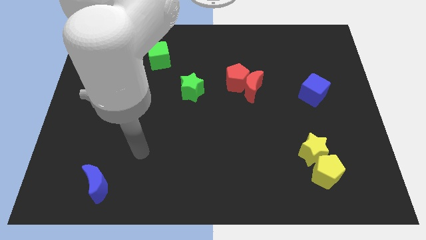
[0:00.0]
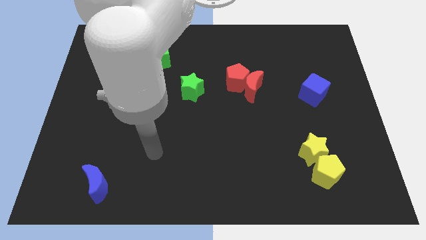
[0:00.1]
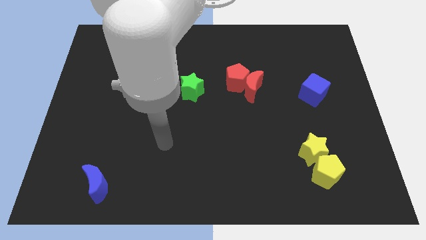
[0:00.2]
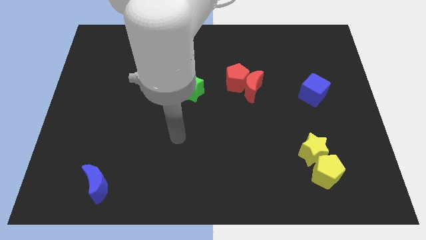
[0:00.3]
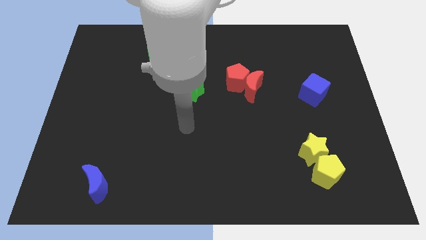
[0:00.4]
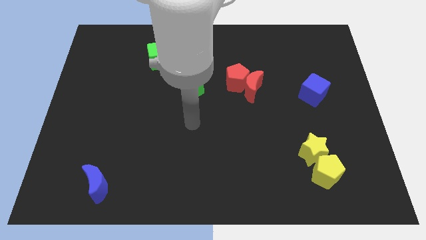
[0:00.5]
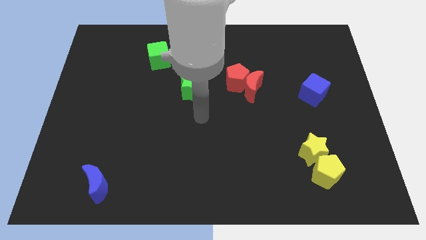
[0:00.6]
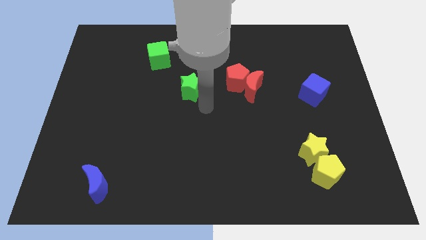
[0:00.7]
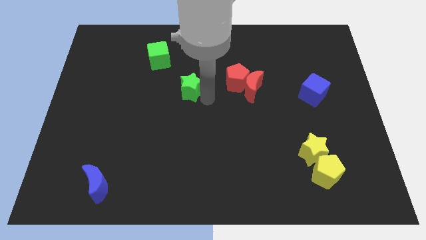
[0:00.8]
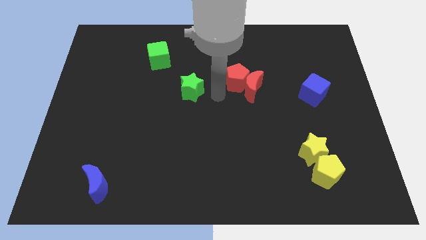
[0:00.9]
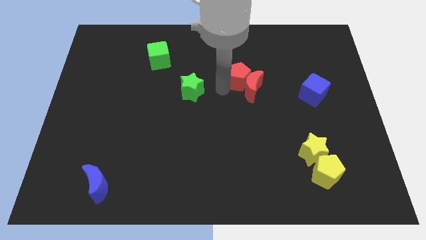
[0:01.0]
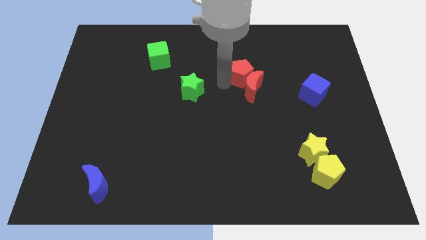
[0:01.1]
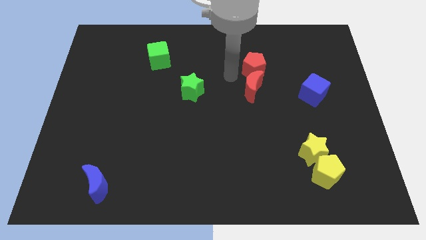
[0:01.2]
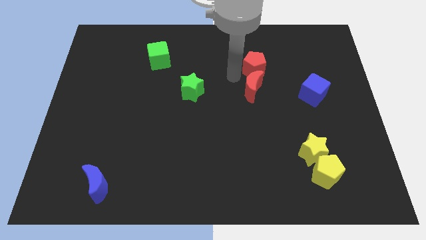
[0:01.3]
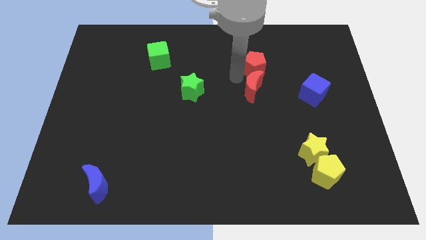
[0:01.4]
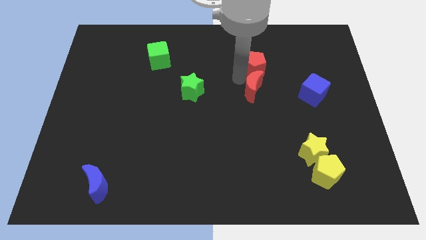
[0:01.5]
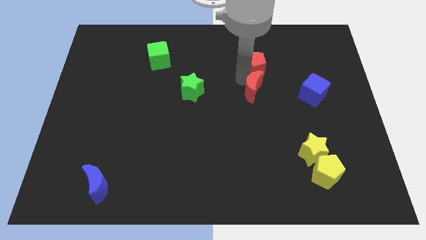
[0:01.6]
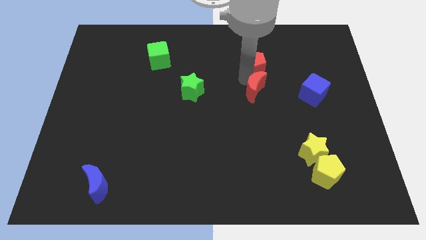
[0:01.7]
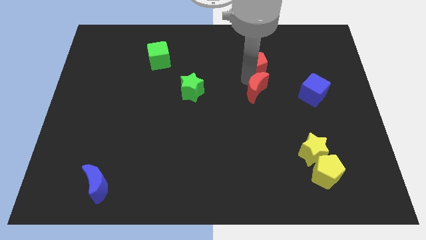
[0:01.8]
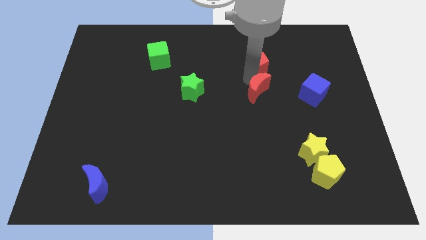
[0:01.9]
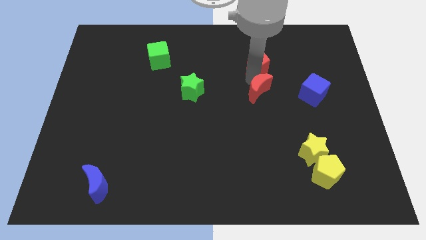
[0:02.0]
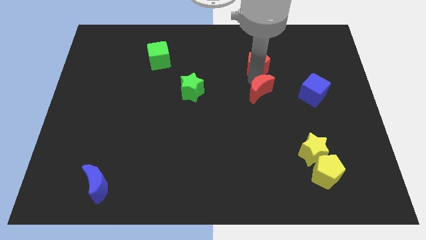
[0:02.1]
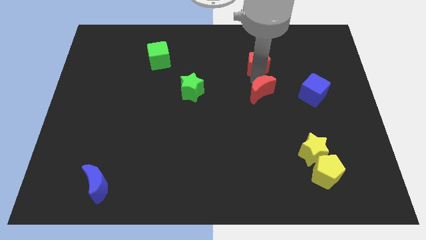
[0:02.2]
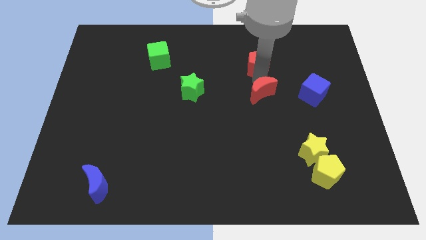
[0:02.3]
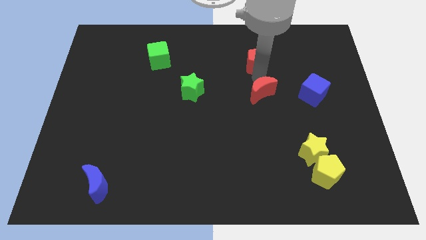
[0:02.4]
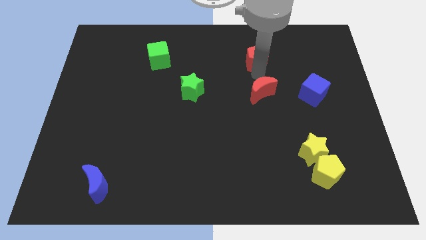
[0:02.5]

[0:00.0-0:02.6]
pull the red moon apart from the red pentagon

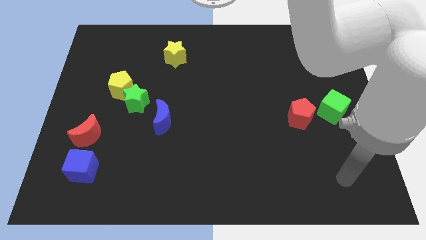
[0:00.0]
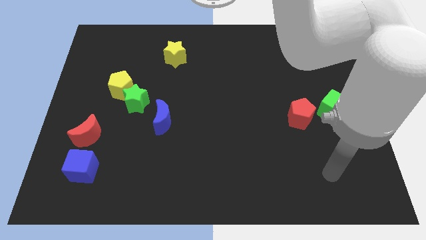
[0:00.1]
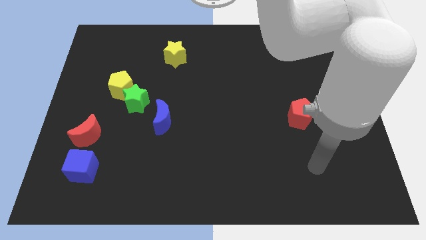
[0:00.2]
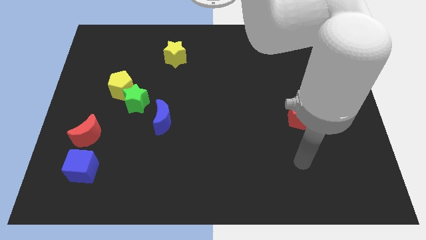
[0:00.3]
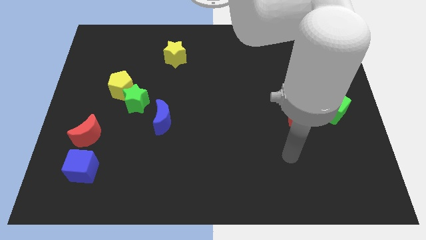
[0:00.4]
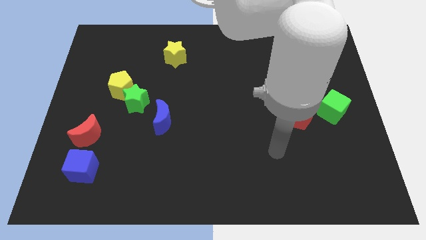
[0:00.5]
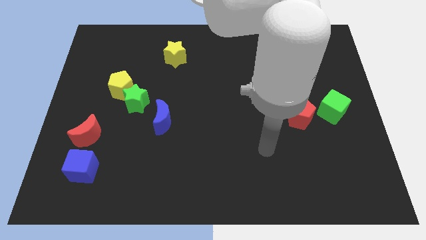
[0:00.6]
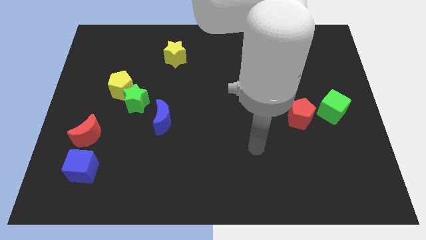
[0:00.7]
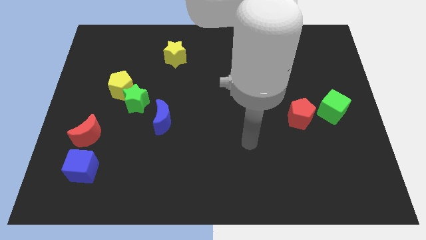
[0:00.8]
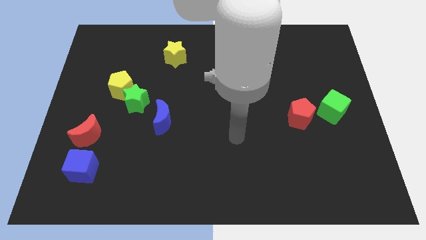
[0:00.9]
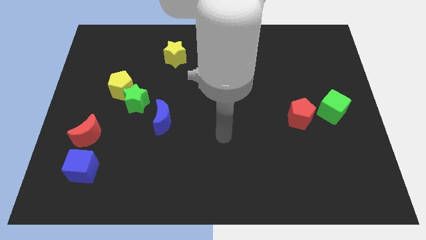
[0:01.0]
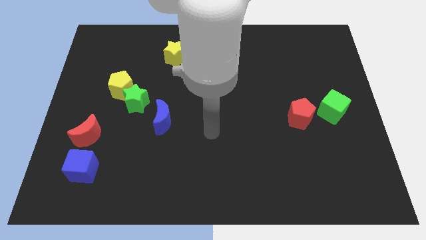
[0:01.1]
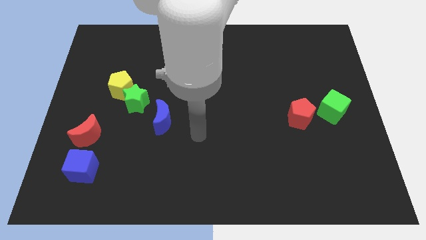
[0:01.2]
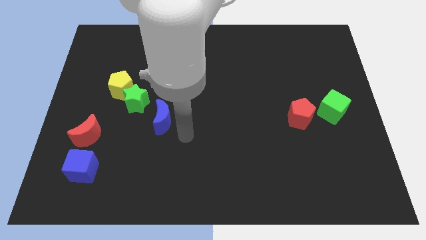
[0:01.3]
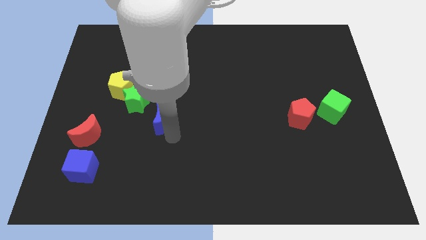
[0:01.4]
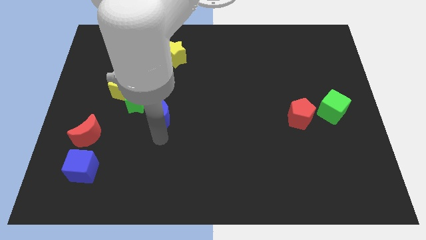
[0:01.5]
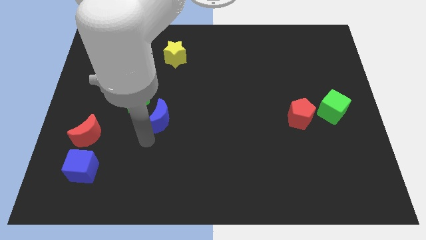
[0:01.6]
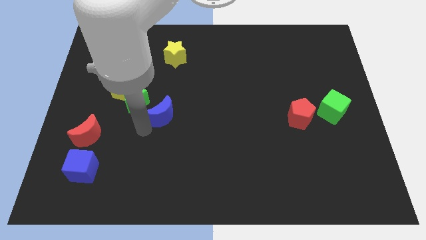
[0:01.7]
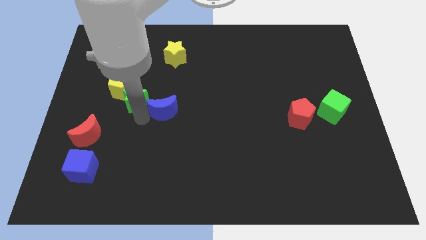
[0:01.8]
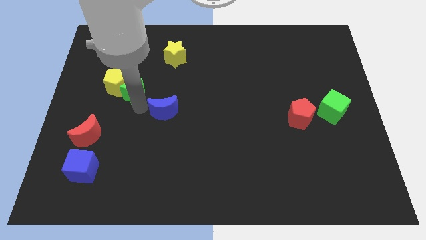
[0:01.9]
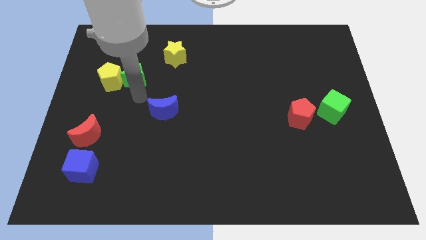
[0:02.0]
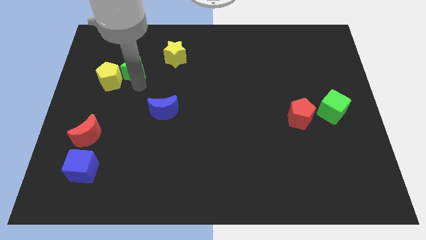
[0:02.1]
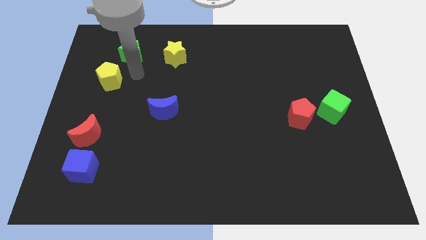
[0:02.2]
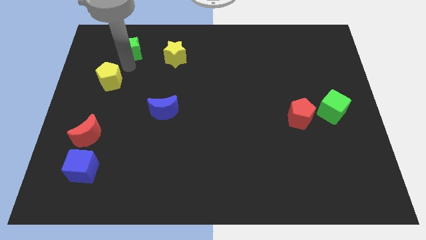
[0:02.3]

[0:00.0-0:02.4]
separate the yellow pentagon from the green star

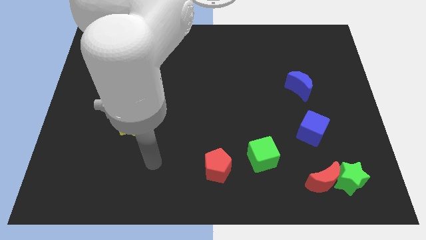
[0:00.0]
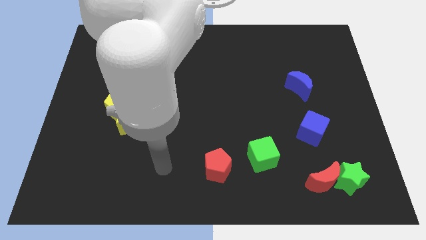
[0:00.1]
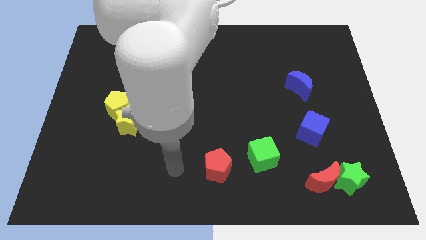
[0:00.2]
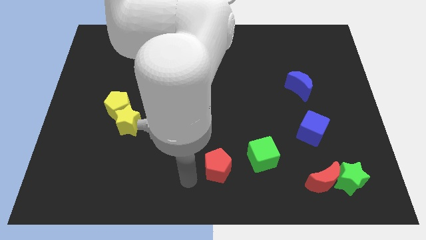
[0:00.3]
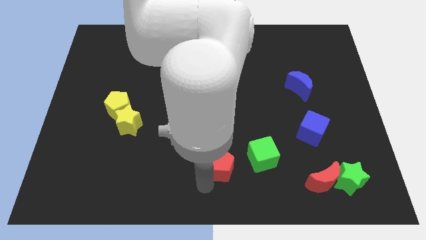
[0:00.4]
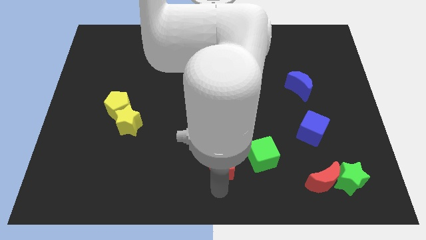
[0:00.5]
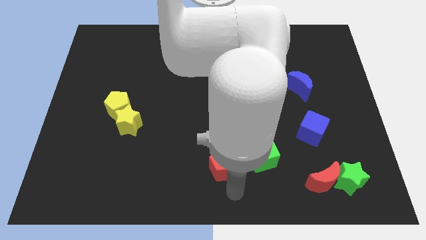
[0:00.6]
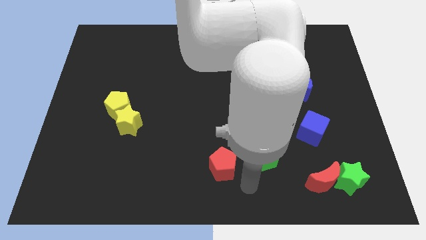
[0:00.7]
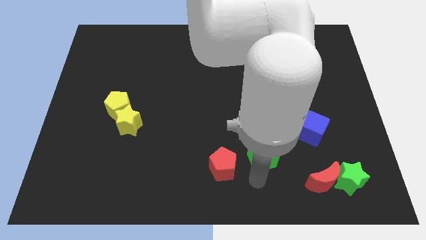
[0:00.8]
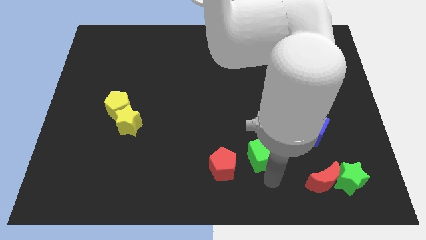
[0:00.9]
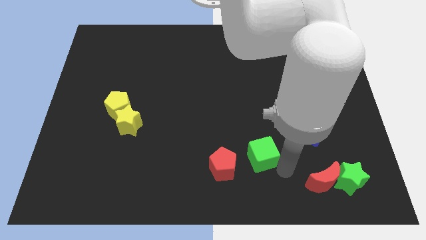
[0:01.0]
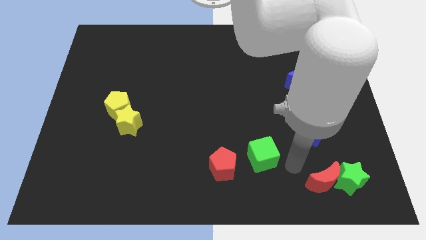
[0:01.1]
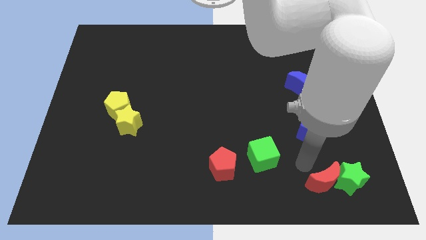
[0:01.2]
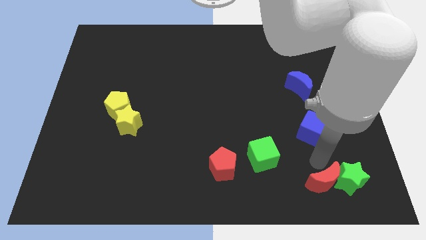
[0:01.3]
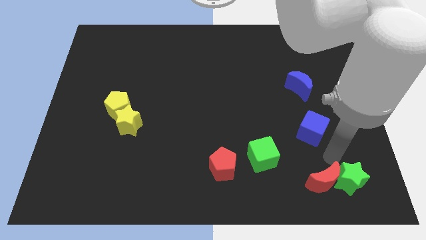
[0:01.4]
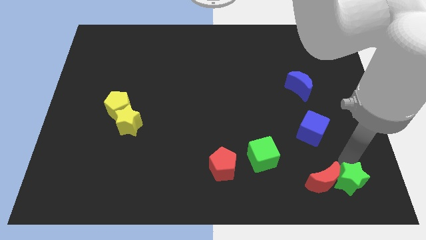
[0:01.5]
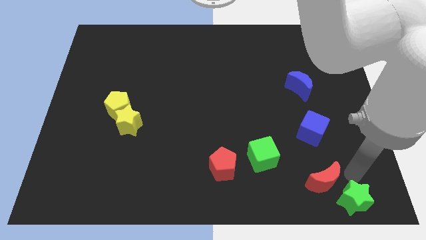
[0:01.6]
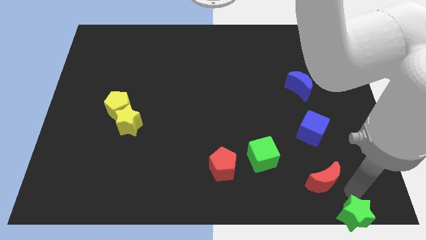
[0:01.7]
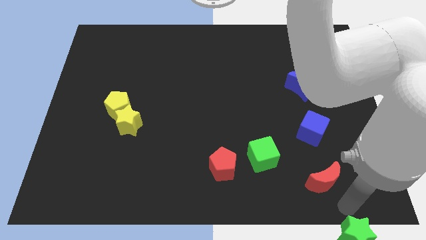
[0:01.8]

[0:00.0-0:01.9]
separate the red moon from the green star

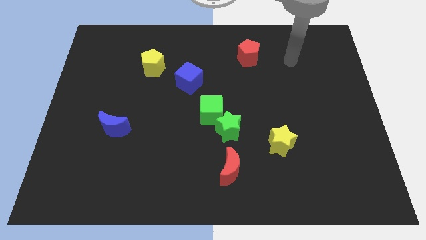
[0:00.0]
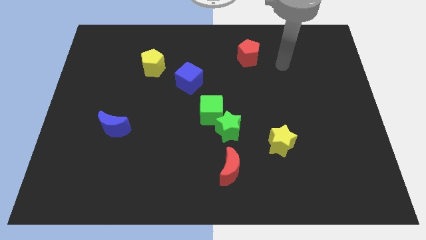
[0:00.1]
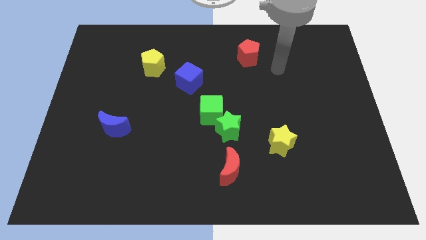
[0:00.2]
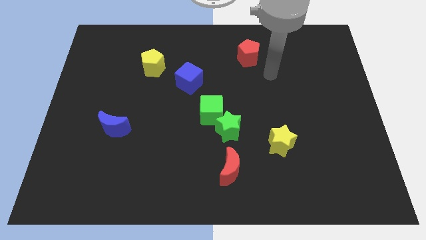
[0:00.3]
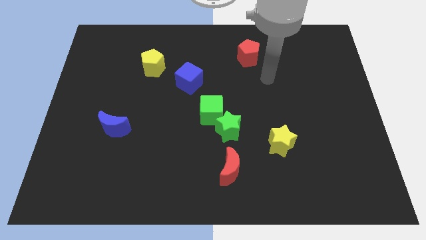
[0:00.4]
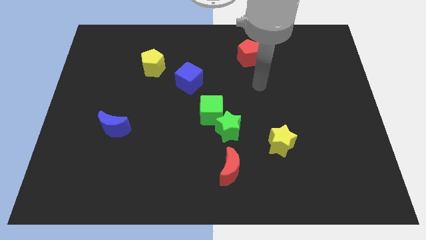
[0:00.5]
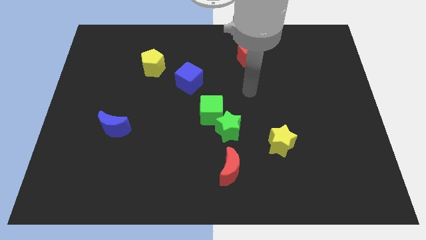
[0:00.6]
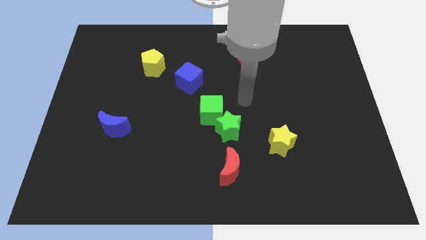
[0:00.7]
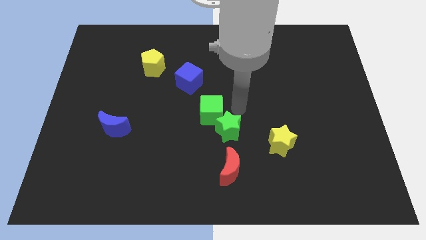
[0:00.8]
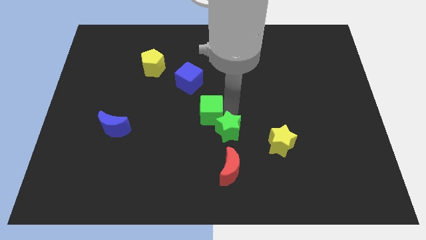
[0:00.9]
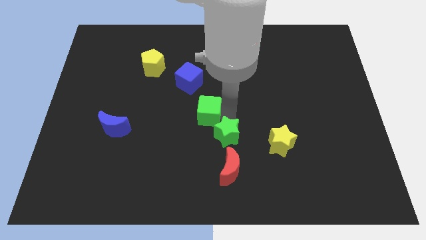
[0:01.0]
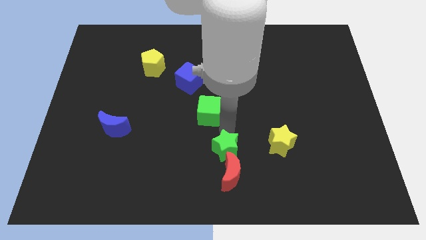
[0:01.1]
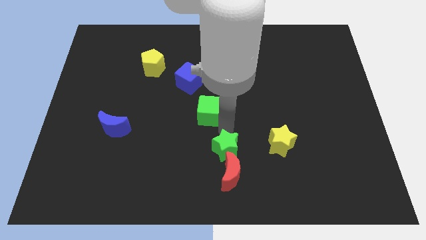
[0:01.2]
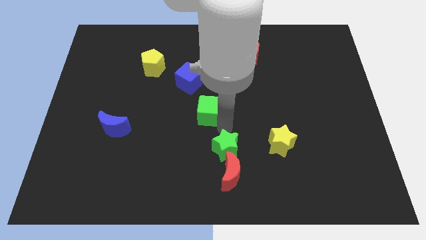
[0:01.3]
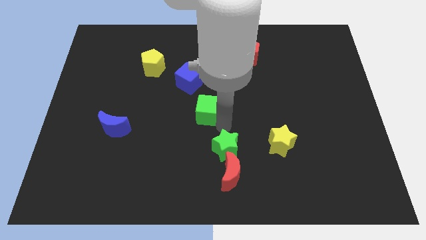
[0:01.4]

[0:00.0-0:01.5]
pull the green cube apart from the green star

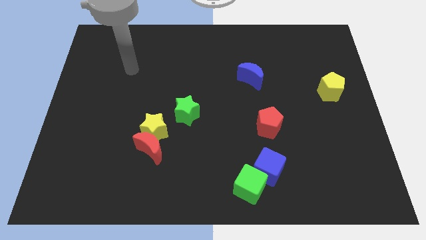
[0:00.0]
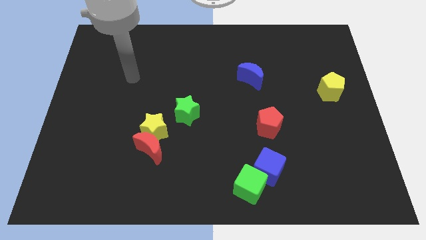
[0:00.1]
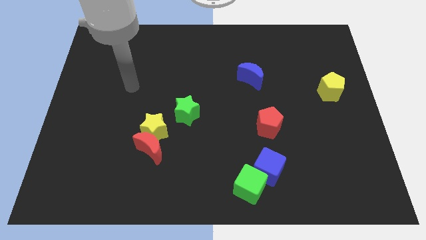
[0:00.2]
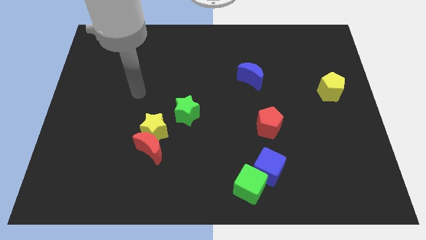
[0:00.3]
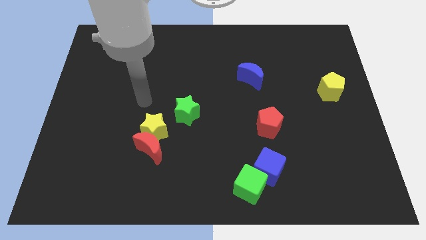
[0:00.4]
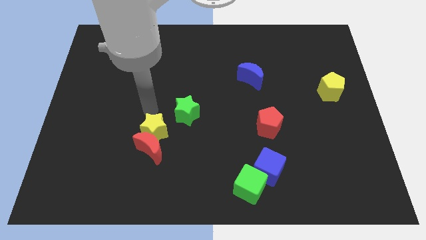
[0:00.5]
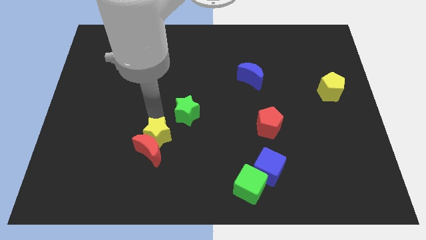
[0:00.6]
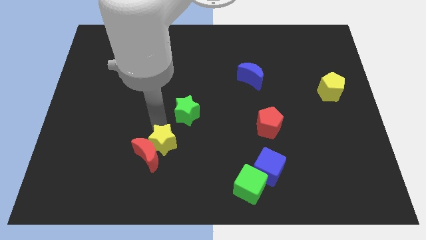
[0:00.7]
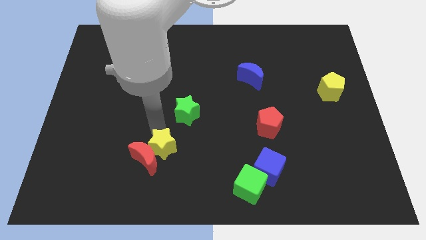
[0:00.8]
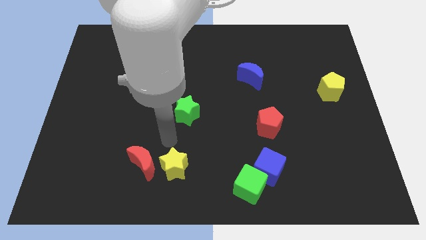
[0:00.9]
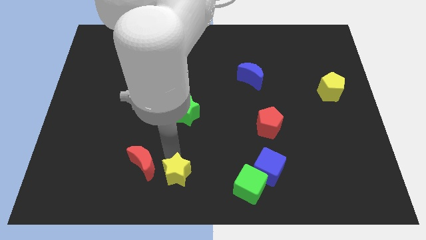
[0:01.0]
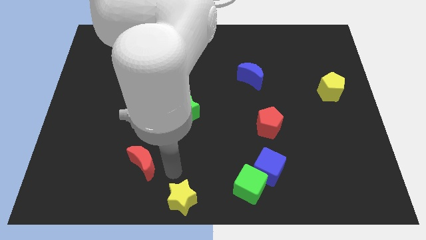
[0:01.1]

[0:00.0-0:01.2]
separate the red moon from the yellow star
